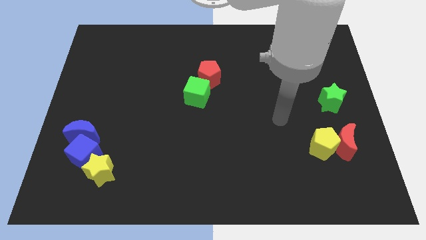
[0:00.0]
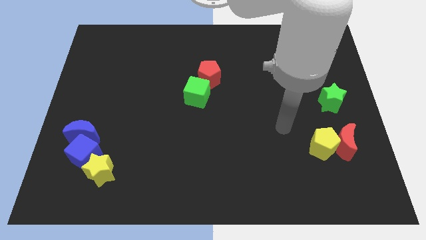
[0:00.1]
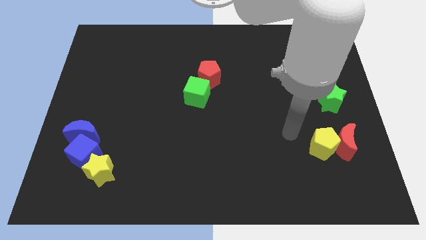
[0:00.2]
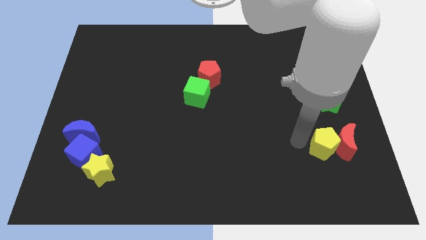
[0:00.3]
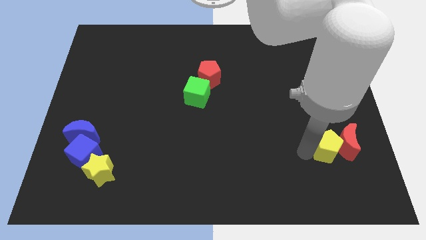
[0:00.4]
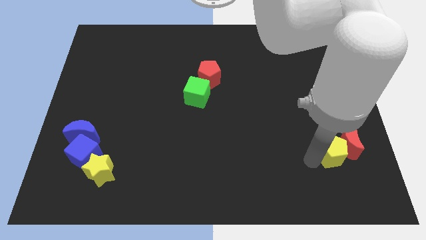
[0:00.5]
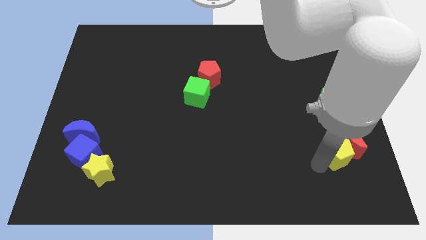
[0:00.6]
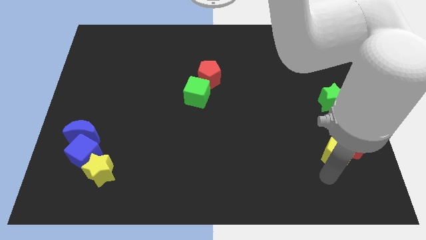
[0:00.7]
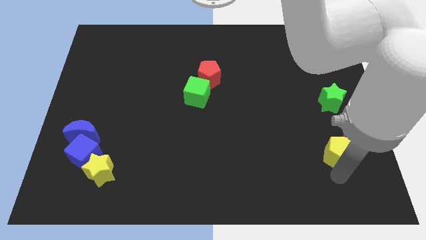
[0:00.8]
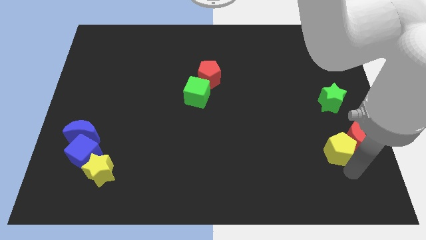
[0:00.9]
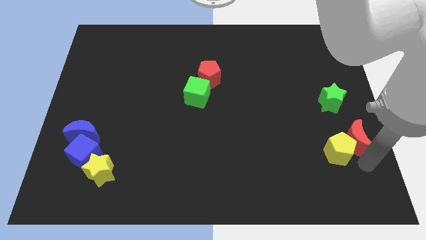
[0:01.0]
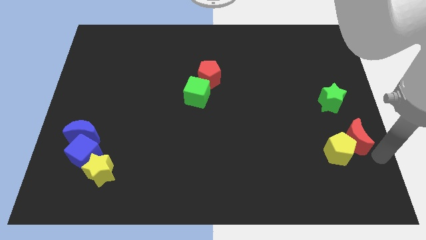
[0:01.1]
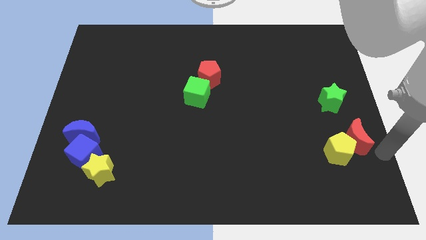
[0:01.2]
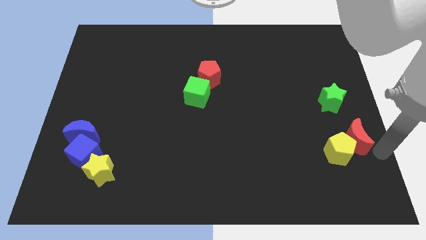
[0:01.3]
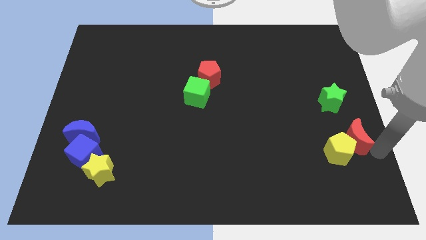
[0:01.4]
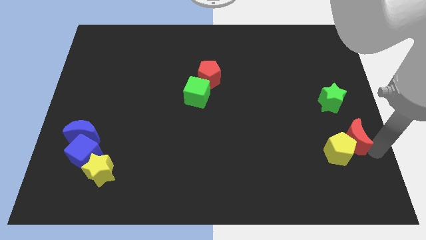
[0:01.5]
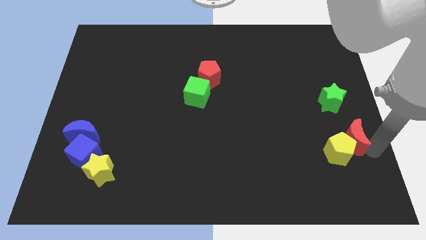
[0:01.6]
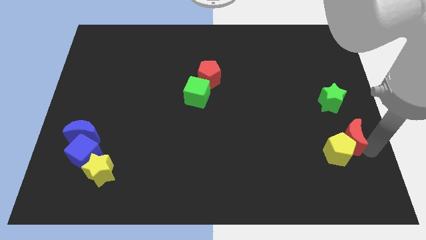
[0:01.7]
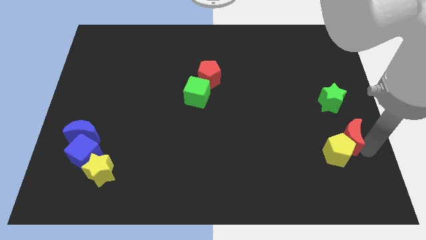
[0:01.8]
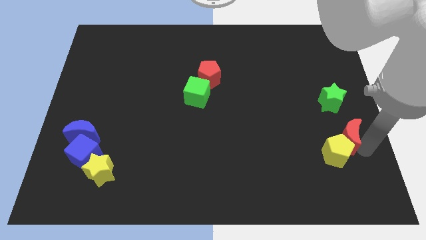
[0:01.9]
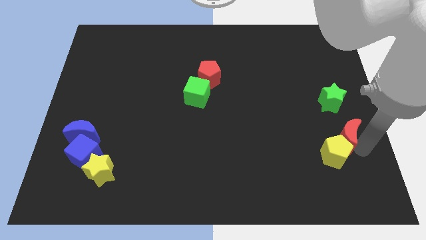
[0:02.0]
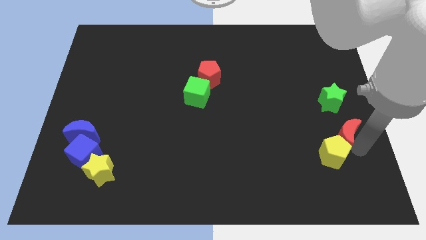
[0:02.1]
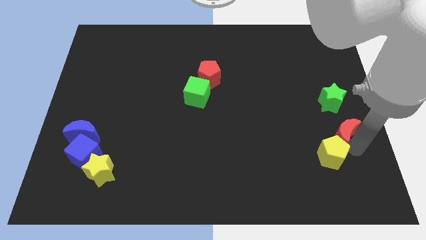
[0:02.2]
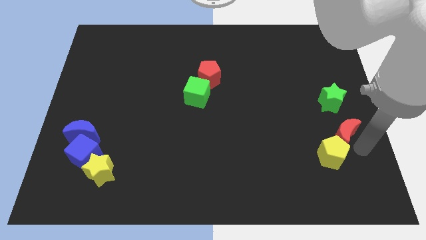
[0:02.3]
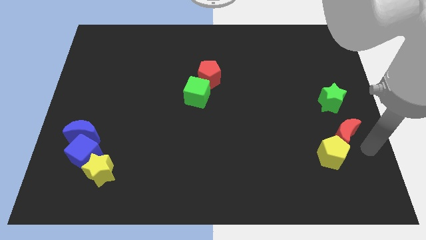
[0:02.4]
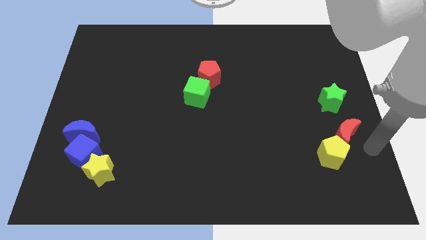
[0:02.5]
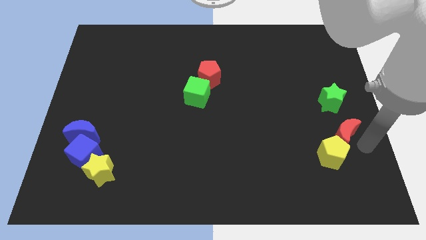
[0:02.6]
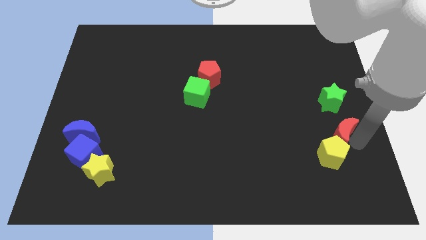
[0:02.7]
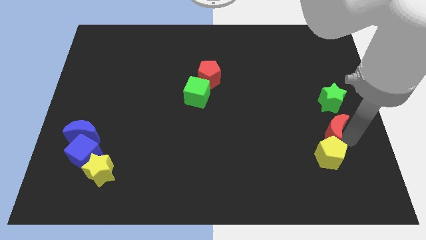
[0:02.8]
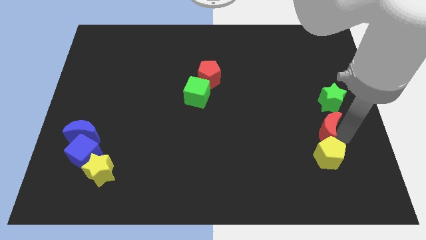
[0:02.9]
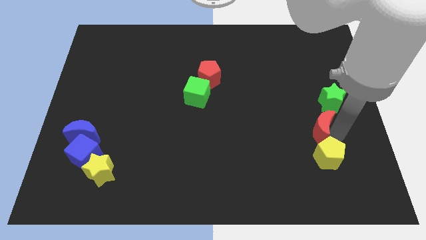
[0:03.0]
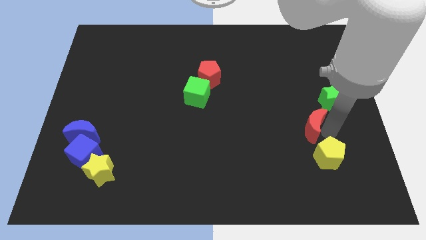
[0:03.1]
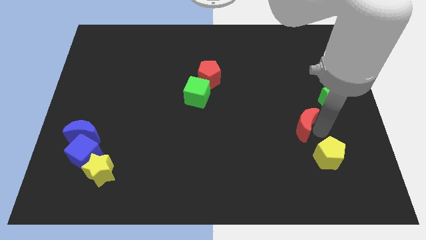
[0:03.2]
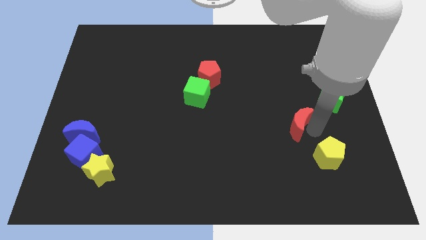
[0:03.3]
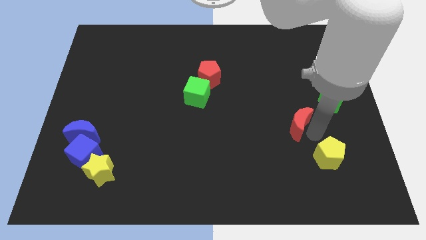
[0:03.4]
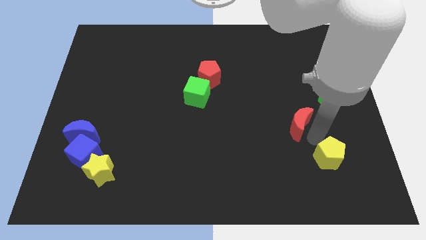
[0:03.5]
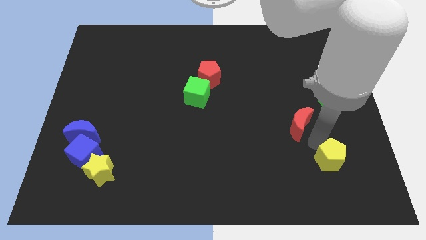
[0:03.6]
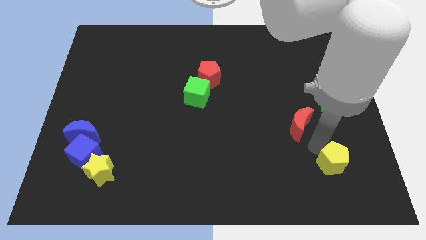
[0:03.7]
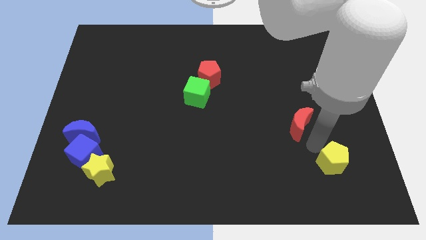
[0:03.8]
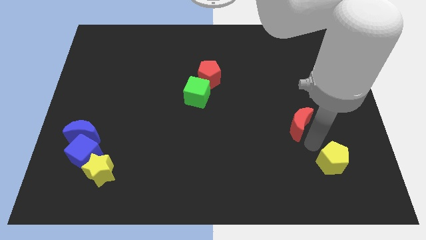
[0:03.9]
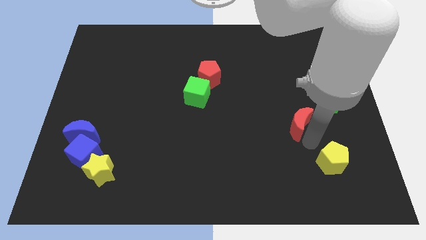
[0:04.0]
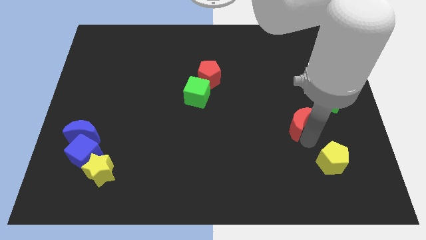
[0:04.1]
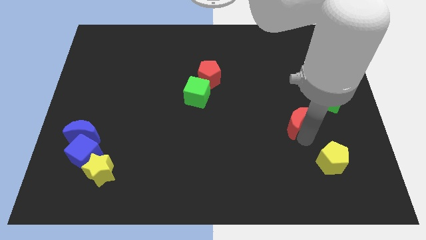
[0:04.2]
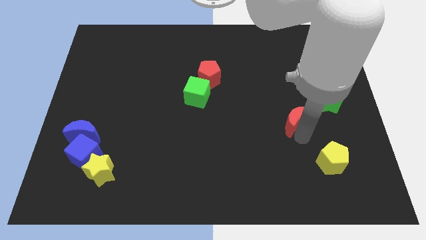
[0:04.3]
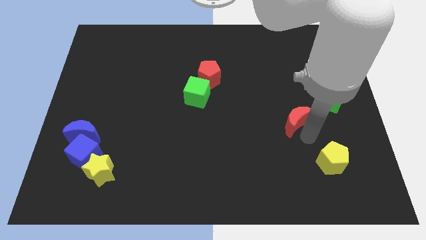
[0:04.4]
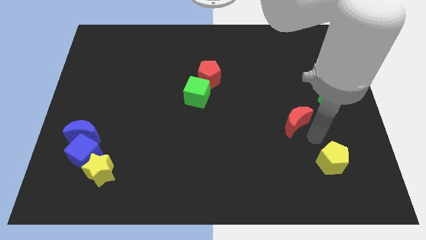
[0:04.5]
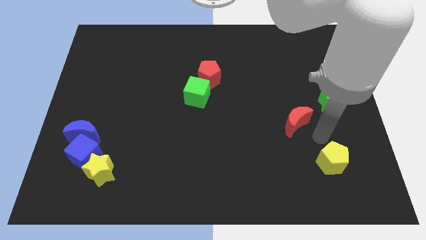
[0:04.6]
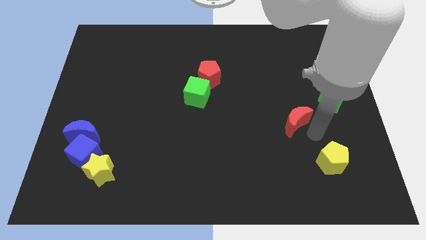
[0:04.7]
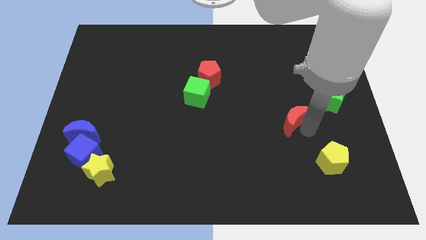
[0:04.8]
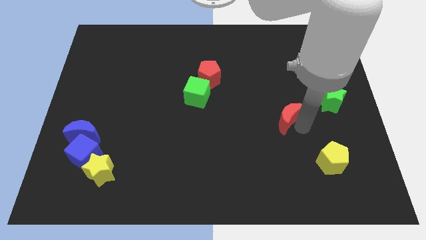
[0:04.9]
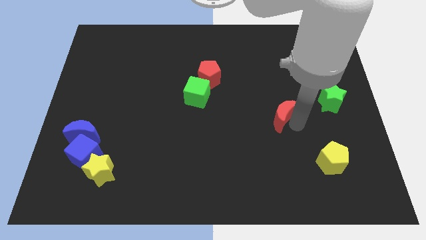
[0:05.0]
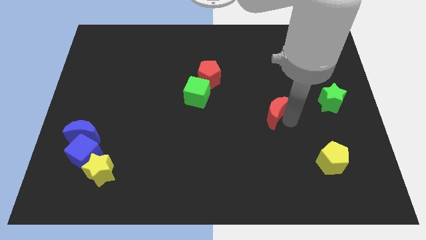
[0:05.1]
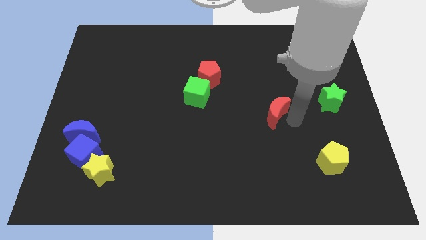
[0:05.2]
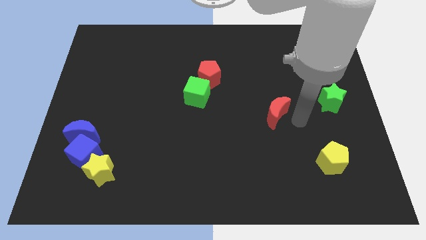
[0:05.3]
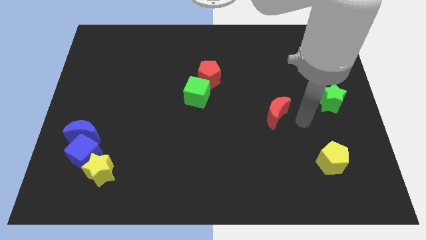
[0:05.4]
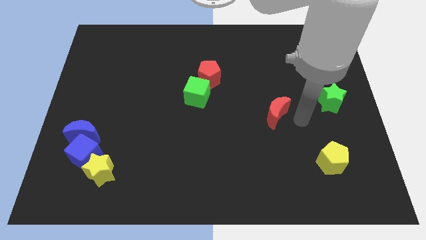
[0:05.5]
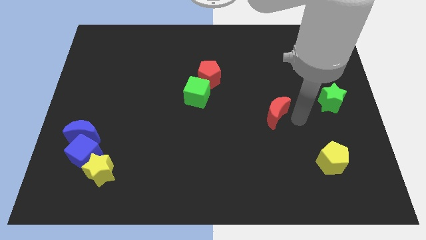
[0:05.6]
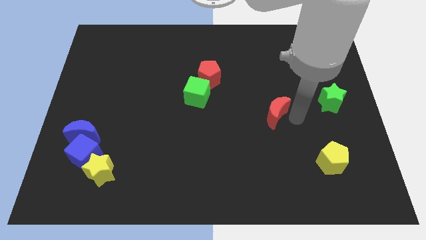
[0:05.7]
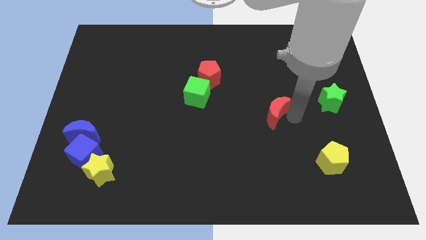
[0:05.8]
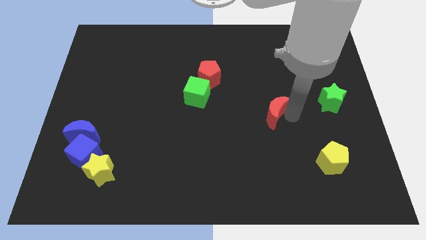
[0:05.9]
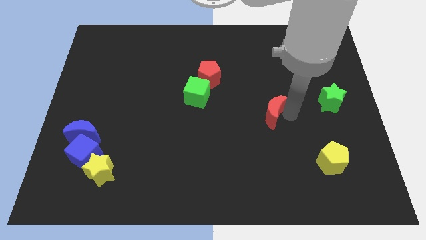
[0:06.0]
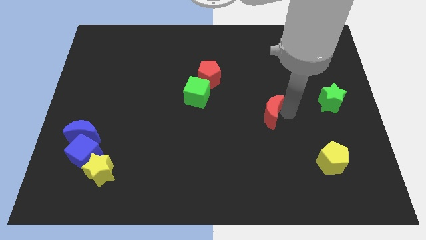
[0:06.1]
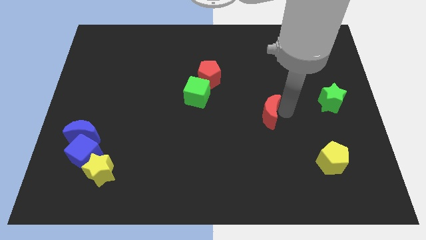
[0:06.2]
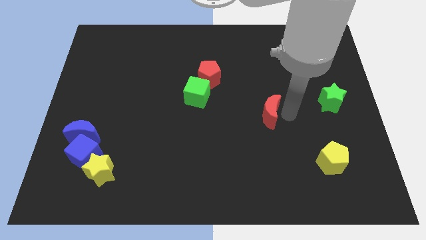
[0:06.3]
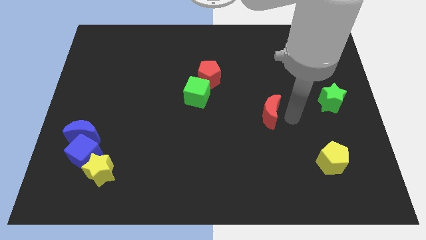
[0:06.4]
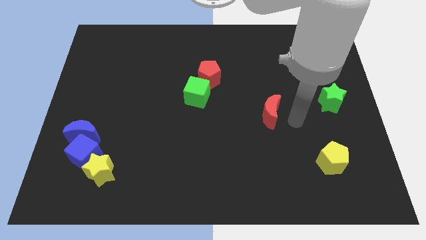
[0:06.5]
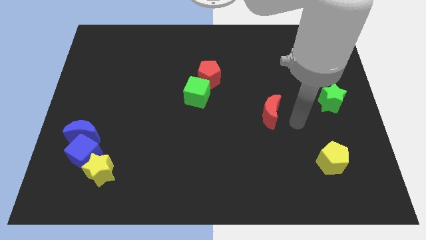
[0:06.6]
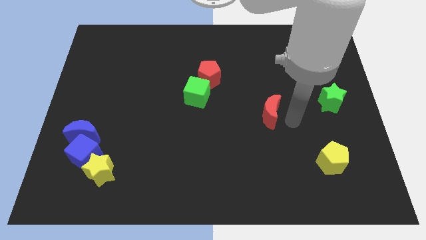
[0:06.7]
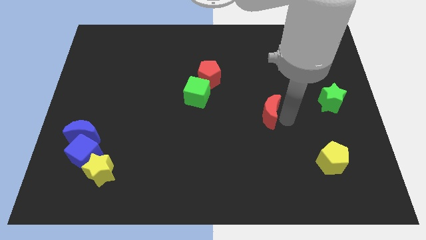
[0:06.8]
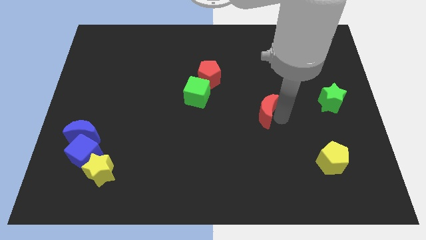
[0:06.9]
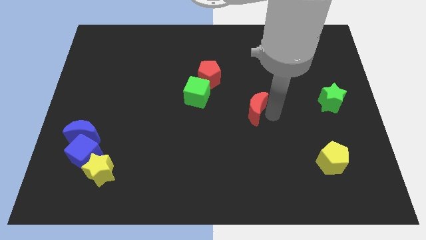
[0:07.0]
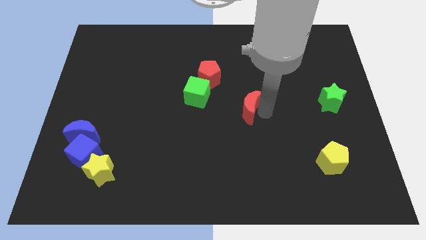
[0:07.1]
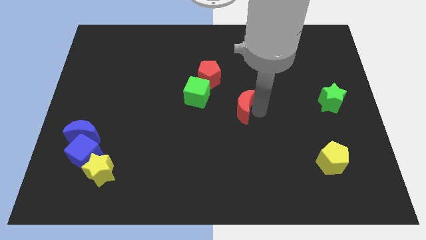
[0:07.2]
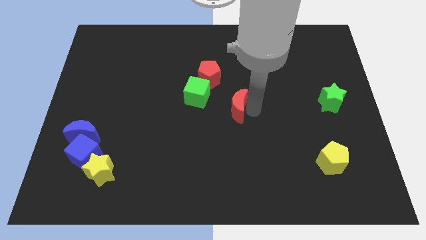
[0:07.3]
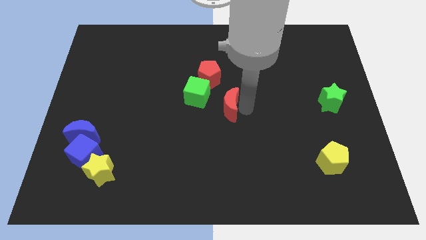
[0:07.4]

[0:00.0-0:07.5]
put the red moon to the bottom of the red pentagon

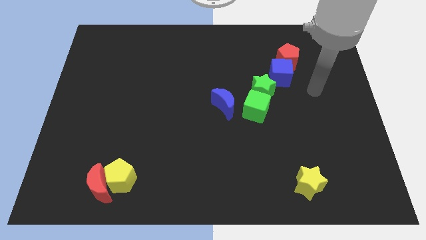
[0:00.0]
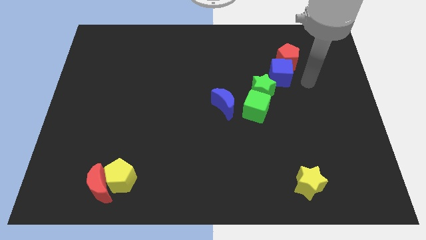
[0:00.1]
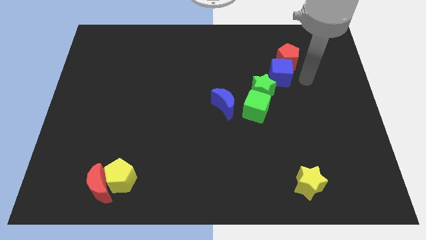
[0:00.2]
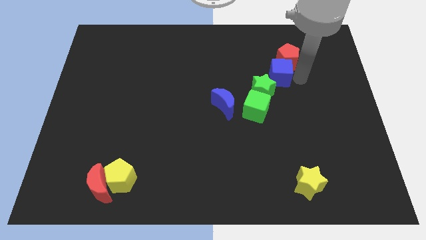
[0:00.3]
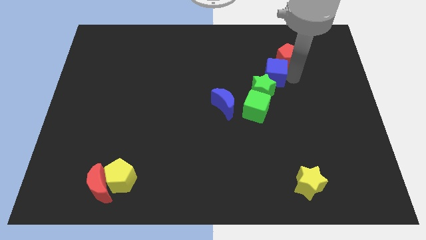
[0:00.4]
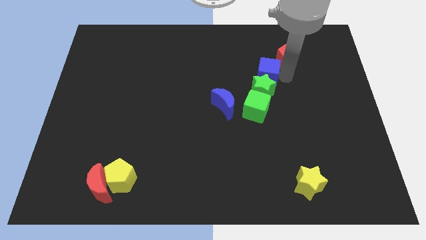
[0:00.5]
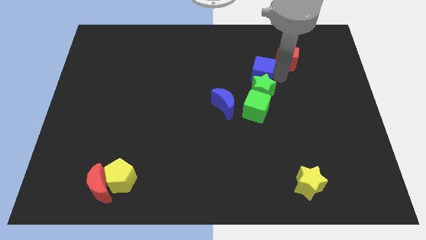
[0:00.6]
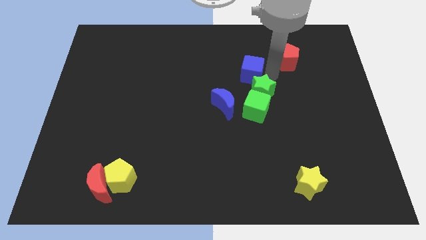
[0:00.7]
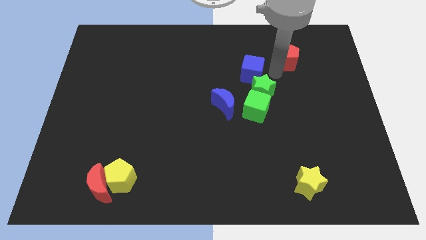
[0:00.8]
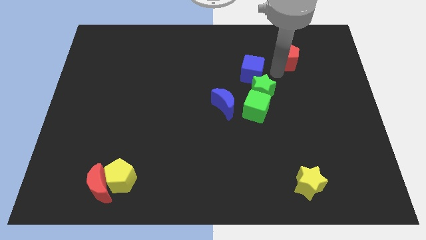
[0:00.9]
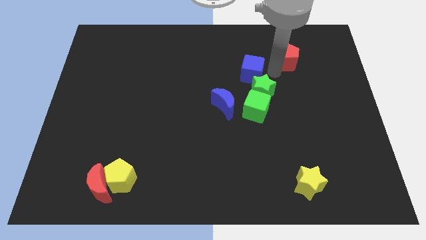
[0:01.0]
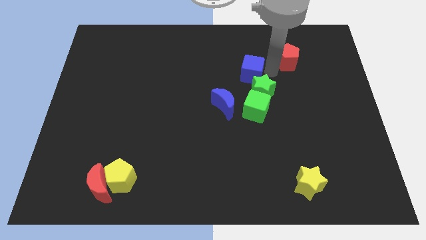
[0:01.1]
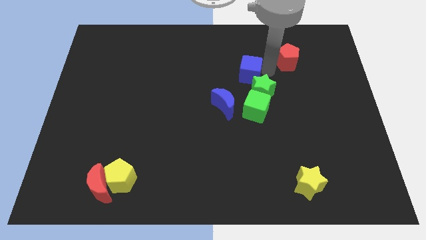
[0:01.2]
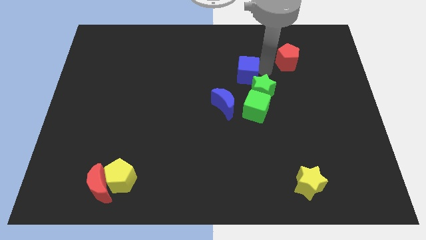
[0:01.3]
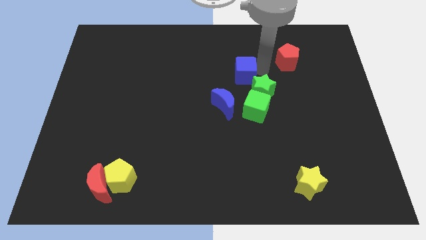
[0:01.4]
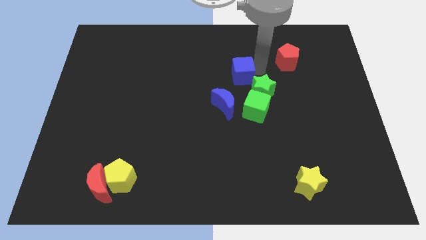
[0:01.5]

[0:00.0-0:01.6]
push the blue cube to the top side of the blue moon
